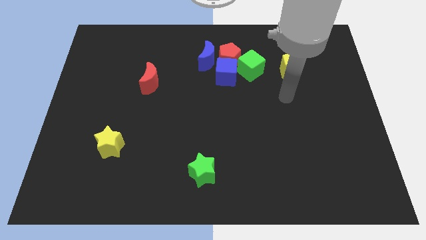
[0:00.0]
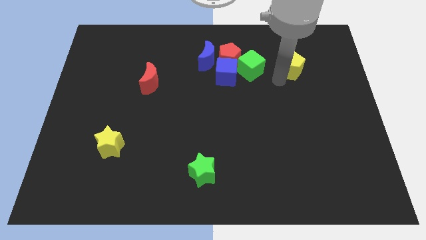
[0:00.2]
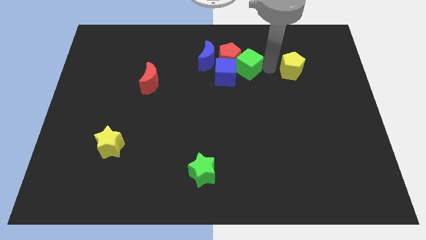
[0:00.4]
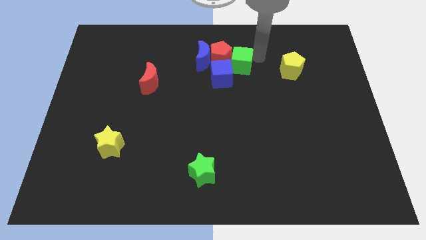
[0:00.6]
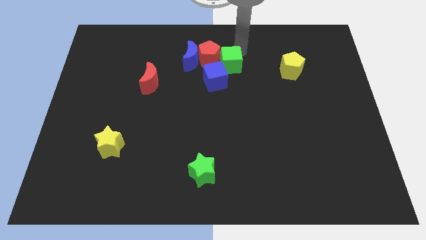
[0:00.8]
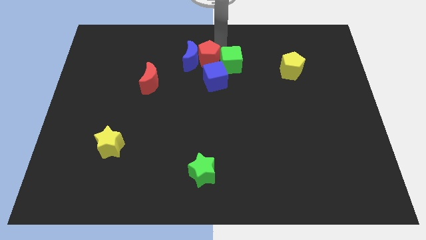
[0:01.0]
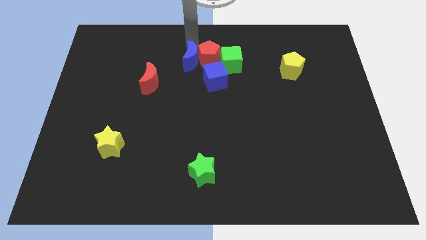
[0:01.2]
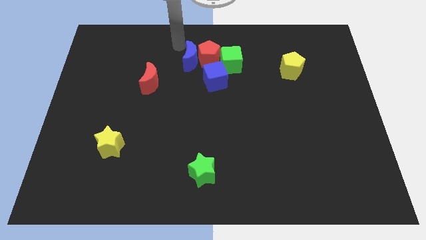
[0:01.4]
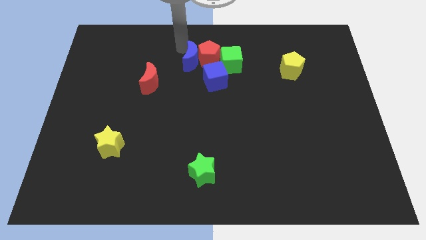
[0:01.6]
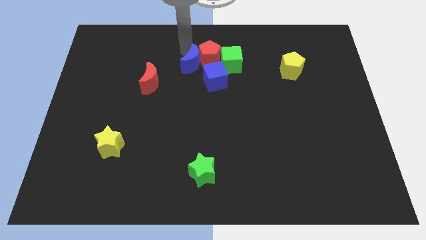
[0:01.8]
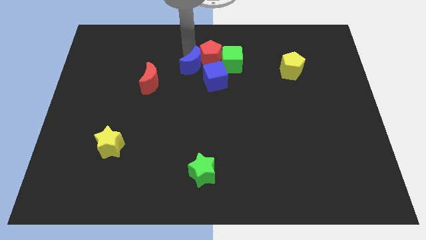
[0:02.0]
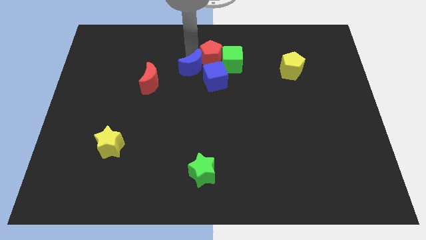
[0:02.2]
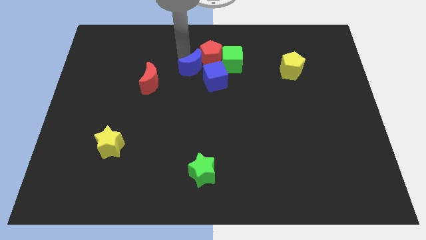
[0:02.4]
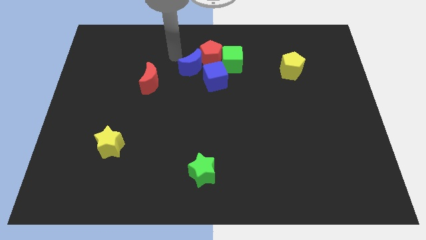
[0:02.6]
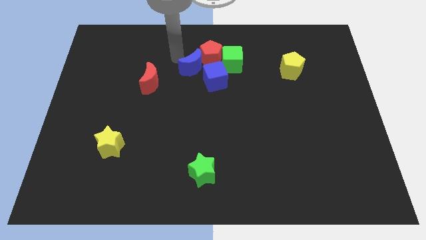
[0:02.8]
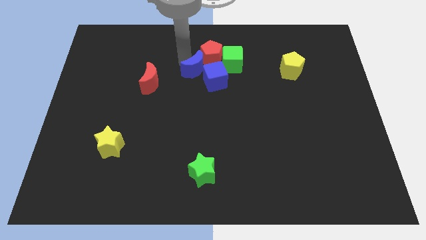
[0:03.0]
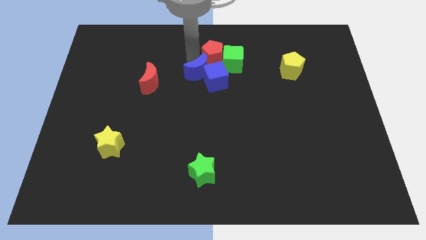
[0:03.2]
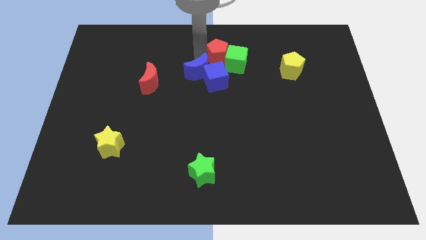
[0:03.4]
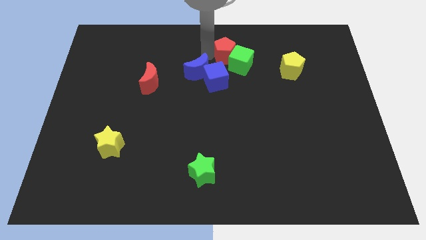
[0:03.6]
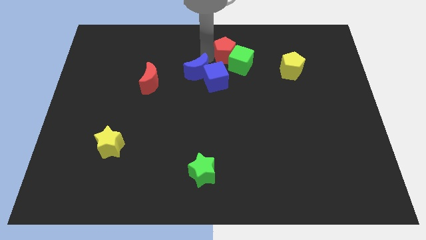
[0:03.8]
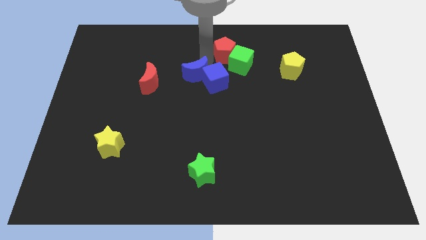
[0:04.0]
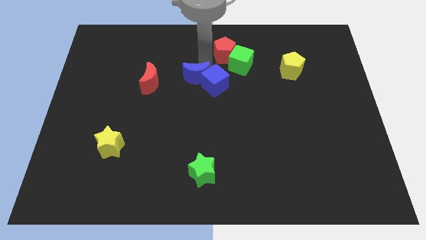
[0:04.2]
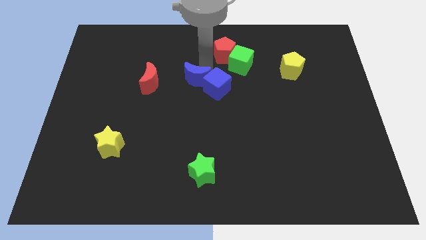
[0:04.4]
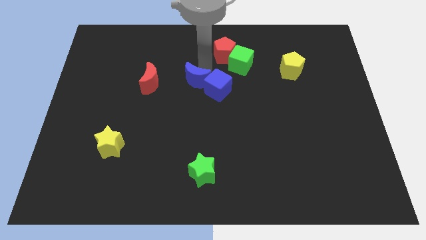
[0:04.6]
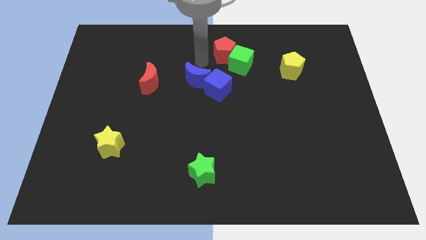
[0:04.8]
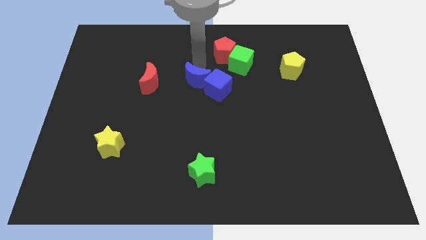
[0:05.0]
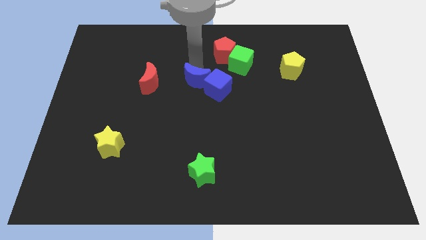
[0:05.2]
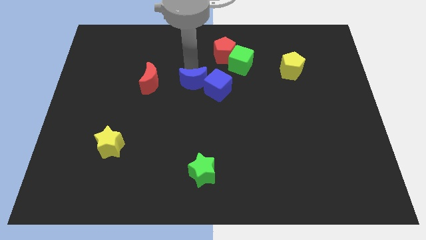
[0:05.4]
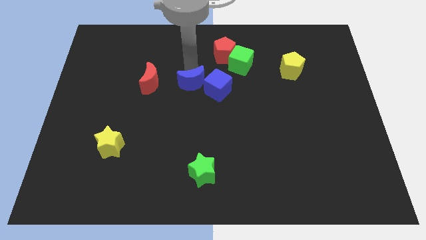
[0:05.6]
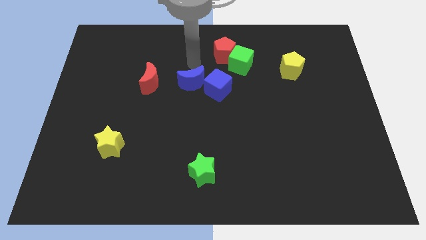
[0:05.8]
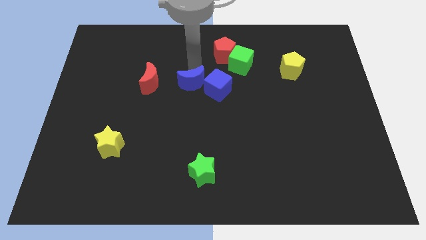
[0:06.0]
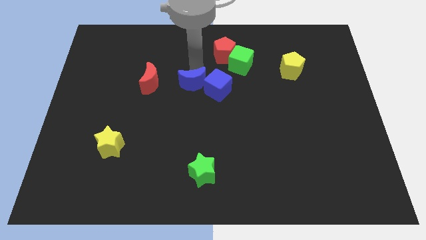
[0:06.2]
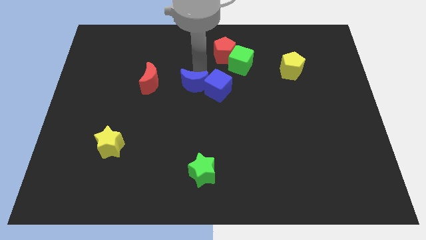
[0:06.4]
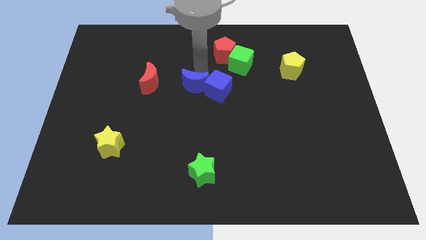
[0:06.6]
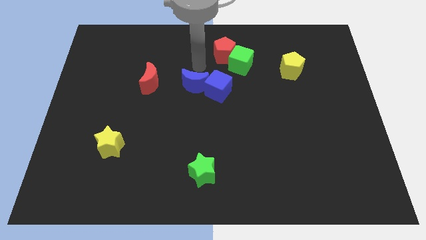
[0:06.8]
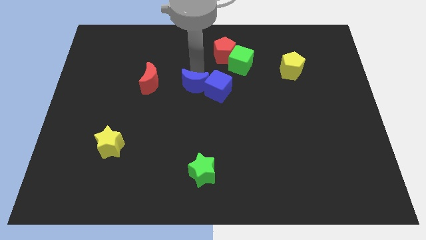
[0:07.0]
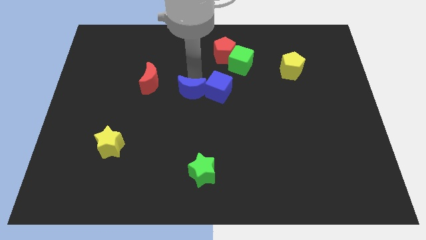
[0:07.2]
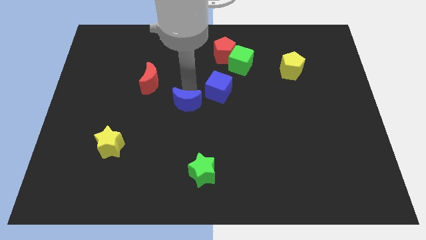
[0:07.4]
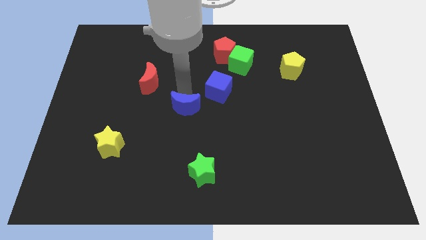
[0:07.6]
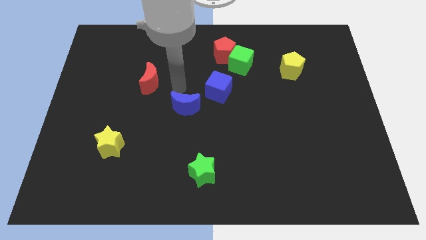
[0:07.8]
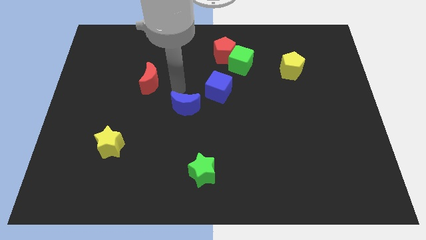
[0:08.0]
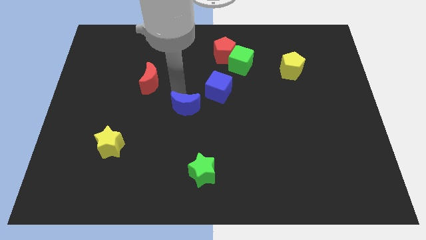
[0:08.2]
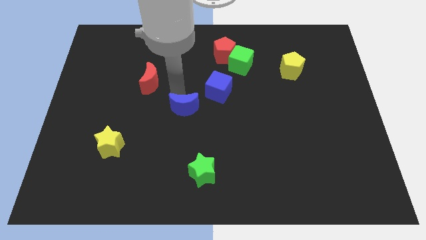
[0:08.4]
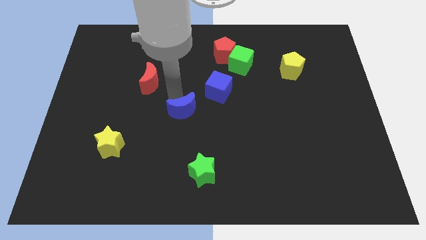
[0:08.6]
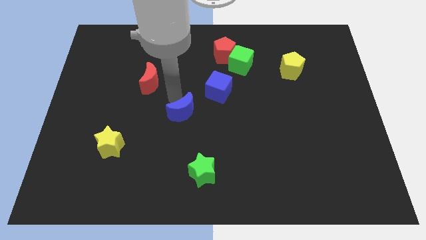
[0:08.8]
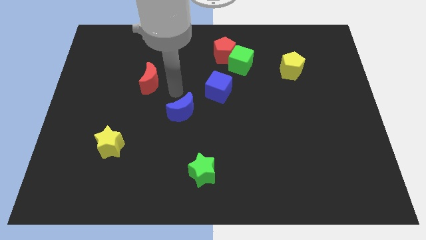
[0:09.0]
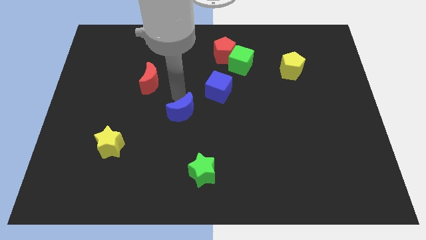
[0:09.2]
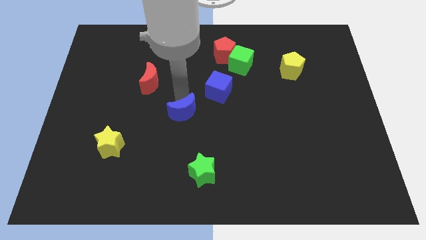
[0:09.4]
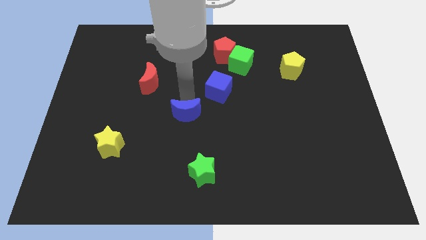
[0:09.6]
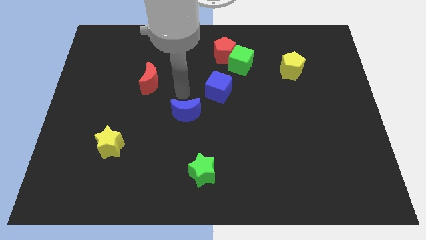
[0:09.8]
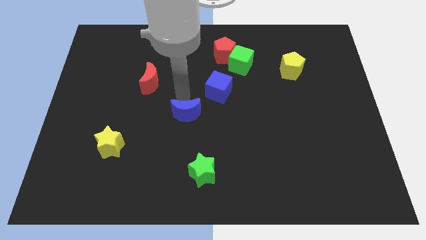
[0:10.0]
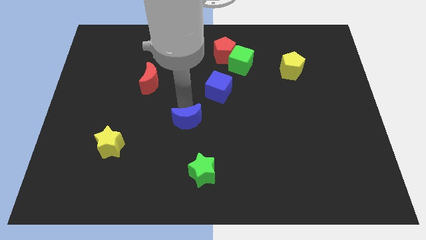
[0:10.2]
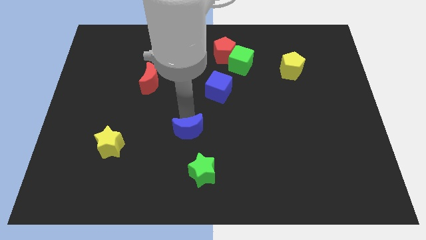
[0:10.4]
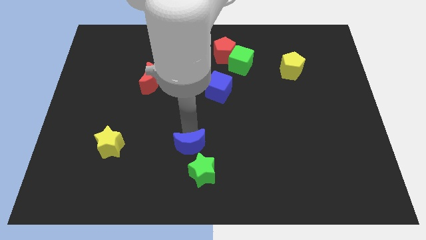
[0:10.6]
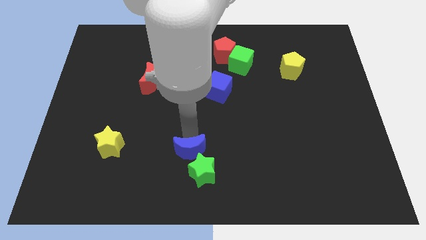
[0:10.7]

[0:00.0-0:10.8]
put the blue moon next to the green star

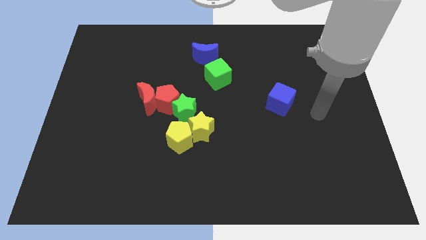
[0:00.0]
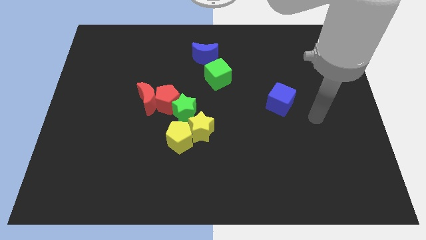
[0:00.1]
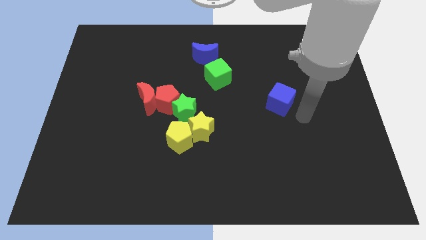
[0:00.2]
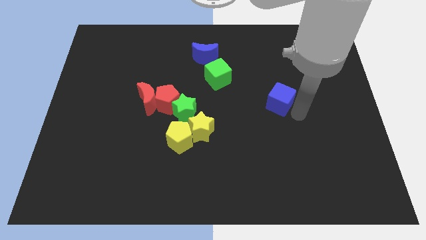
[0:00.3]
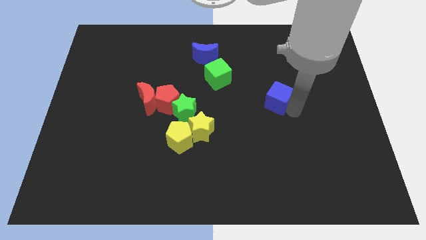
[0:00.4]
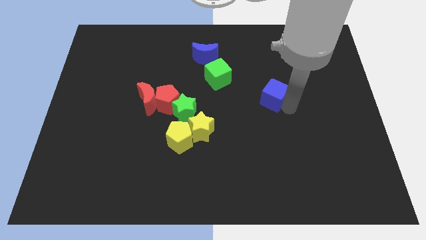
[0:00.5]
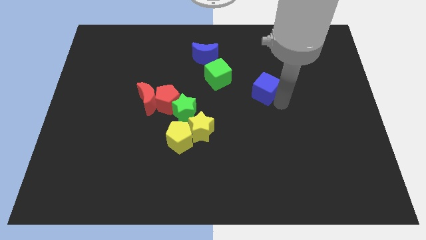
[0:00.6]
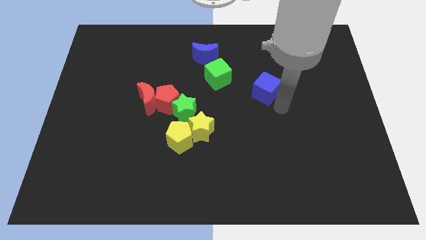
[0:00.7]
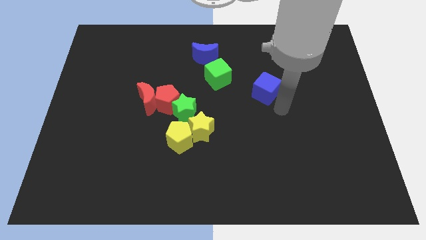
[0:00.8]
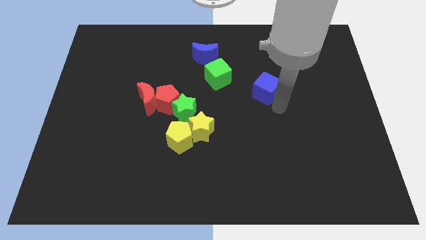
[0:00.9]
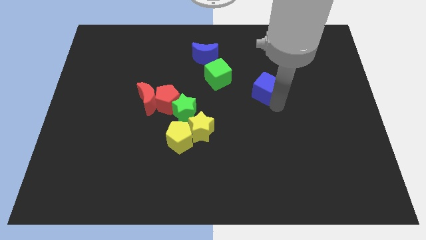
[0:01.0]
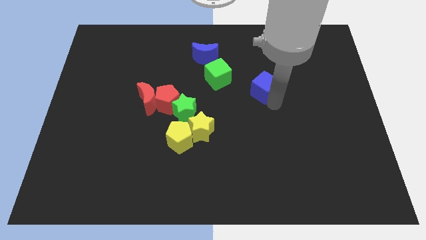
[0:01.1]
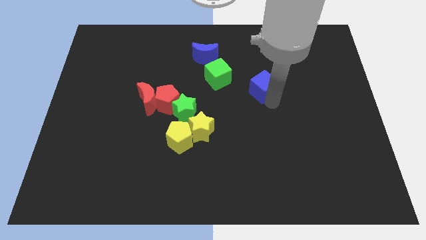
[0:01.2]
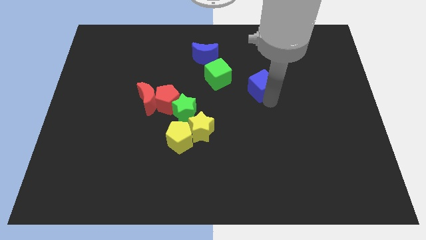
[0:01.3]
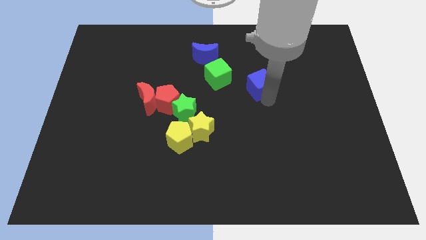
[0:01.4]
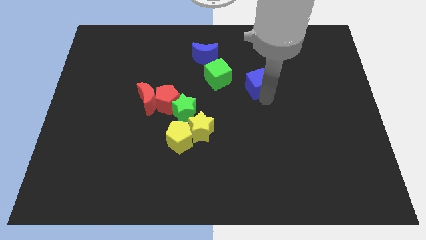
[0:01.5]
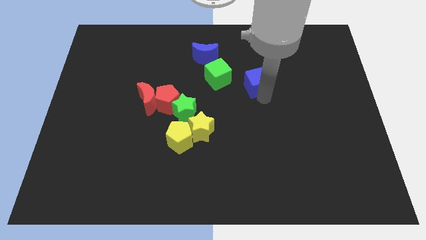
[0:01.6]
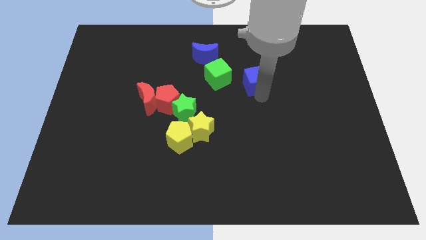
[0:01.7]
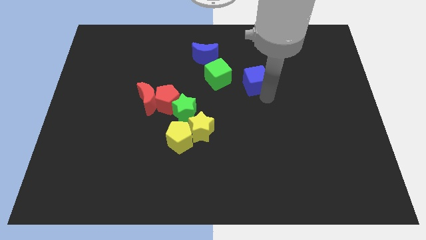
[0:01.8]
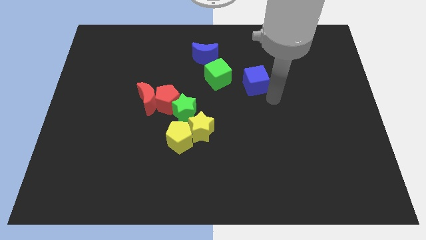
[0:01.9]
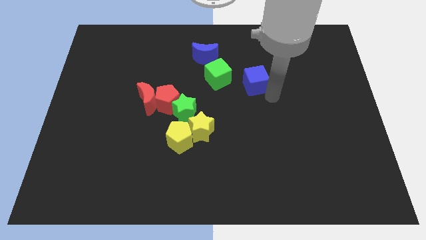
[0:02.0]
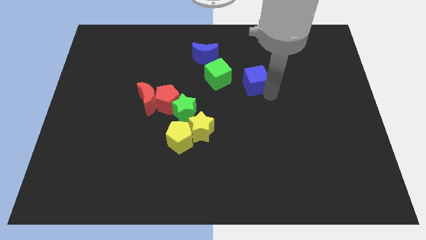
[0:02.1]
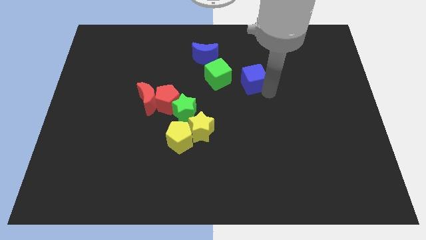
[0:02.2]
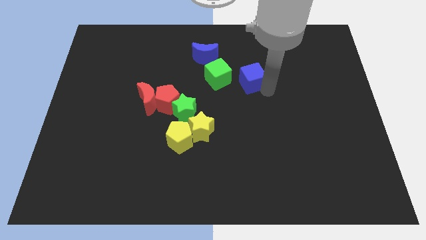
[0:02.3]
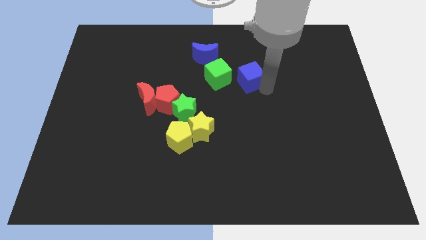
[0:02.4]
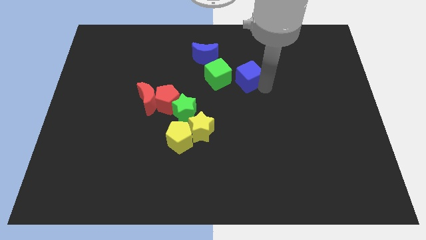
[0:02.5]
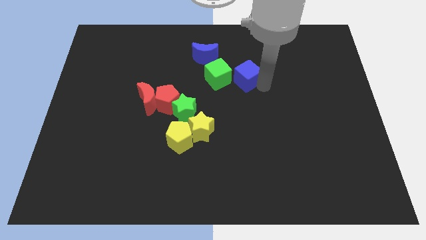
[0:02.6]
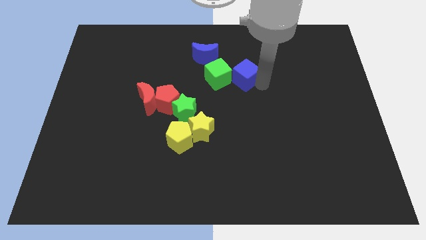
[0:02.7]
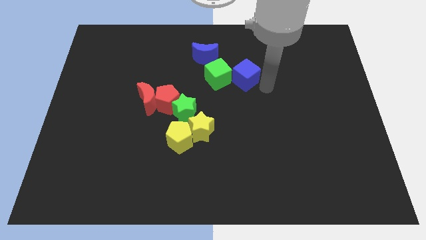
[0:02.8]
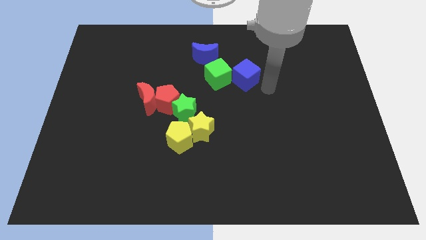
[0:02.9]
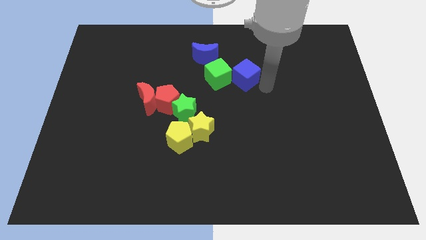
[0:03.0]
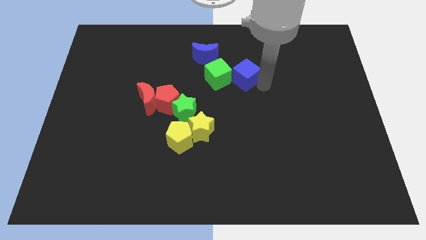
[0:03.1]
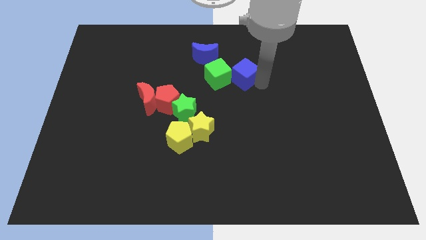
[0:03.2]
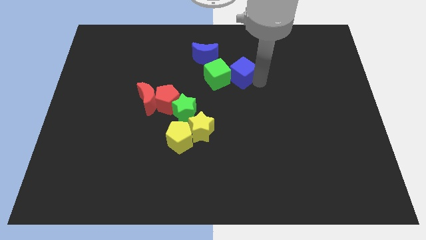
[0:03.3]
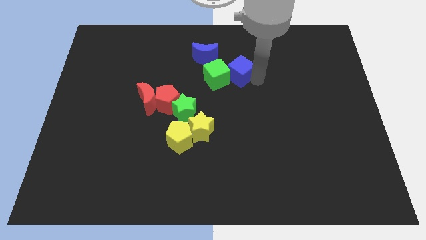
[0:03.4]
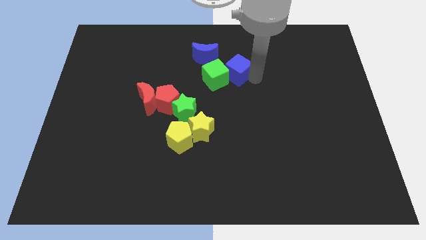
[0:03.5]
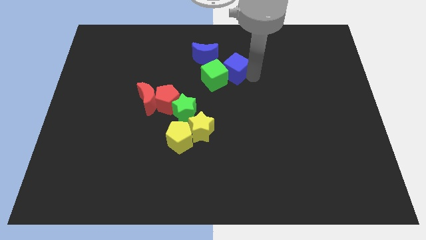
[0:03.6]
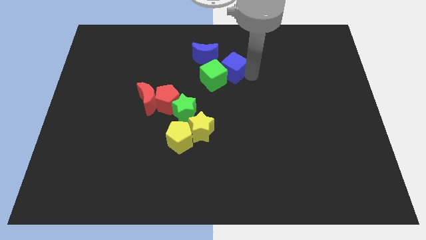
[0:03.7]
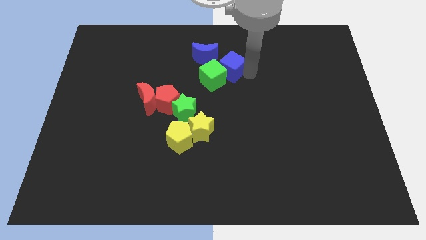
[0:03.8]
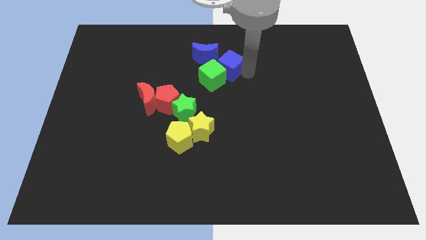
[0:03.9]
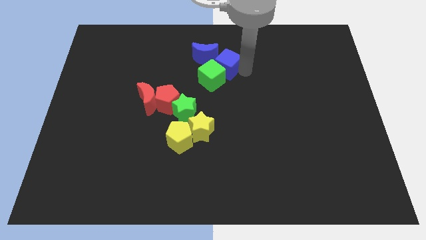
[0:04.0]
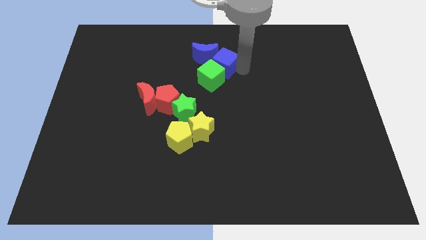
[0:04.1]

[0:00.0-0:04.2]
slide the blue cube close to the blue moon
